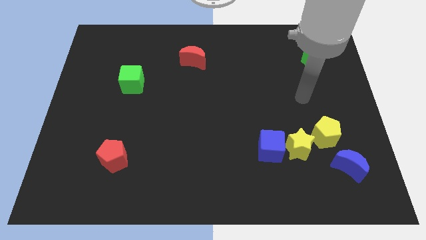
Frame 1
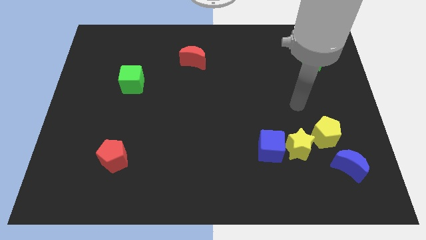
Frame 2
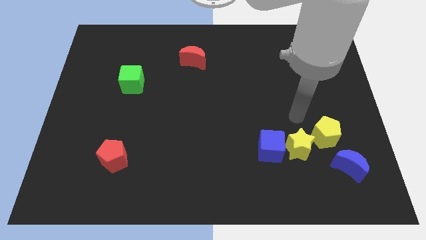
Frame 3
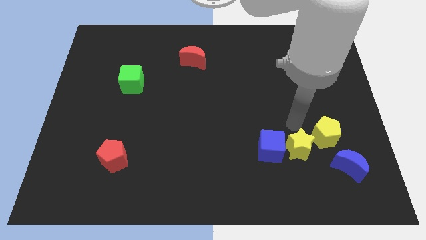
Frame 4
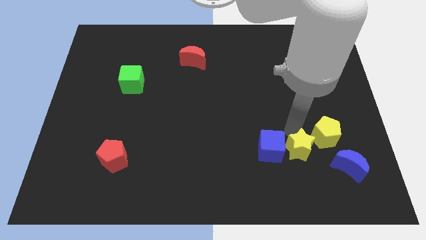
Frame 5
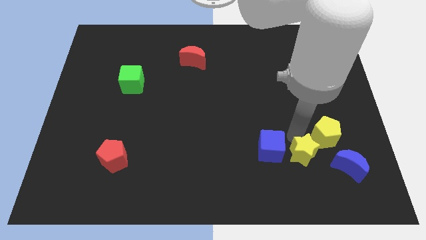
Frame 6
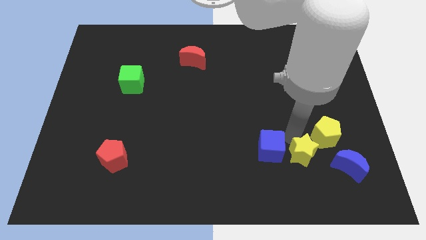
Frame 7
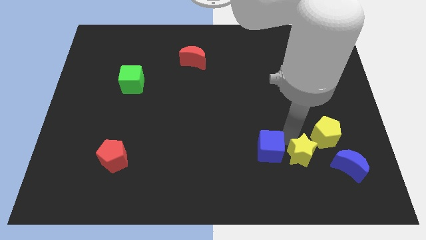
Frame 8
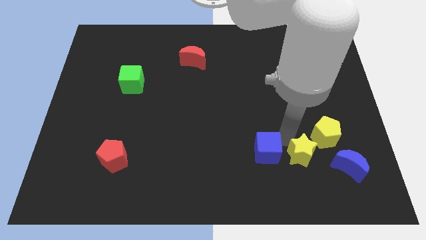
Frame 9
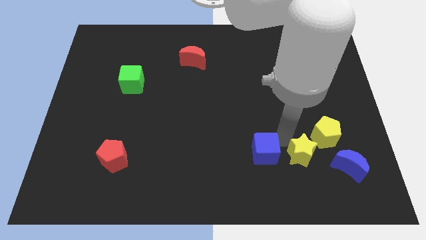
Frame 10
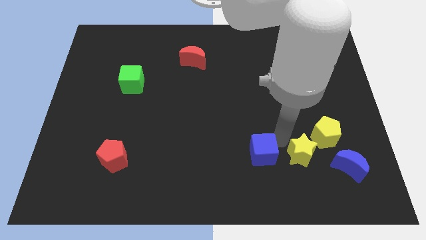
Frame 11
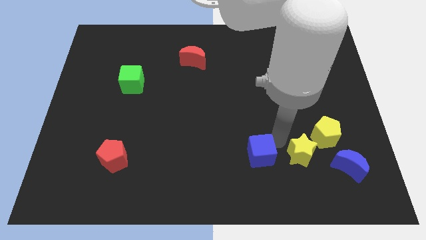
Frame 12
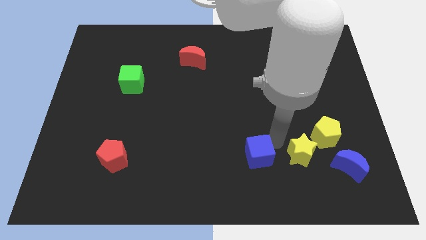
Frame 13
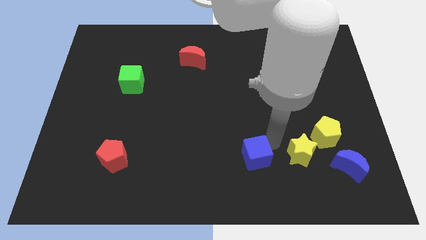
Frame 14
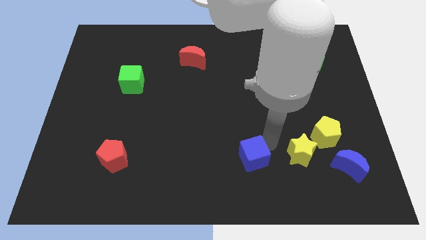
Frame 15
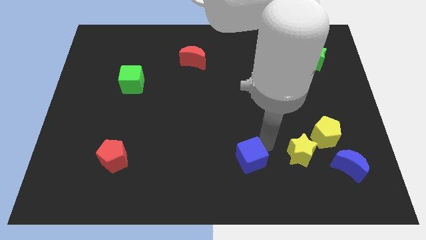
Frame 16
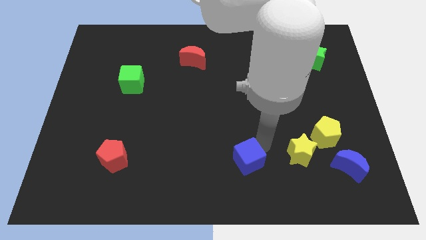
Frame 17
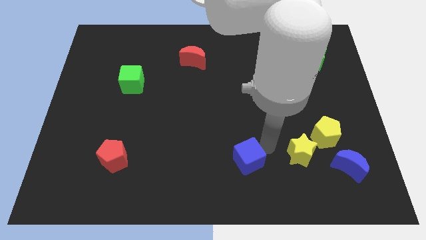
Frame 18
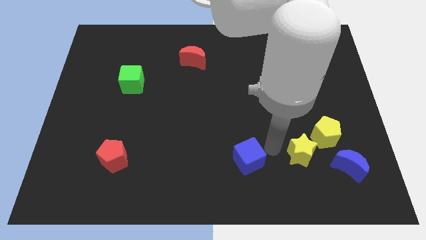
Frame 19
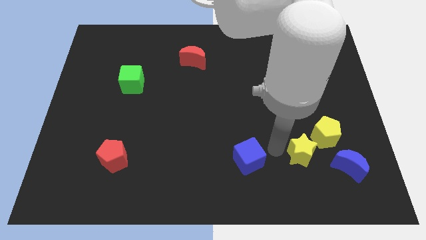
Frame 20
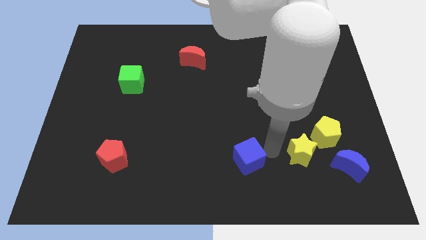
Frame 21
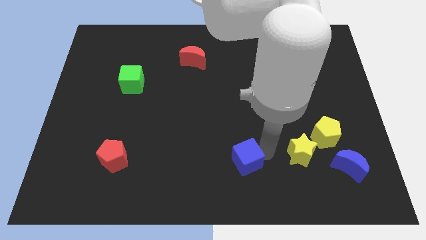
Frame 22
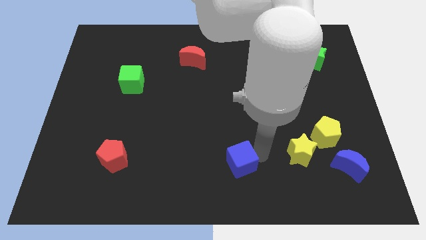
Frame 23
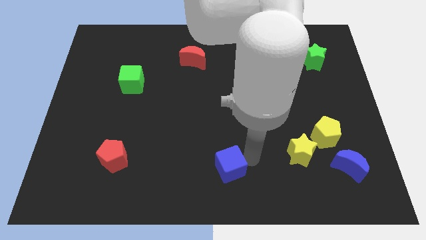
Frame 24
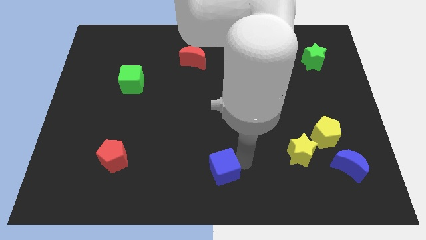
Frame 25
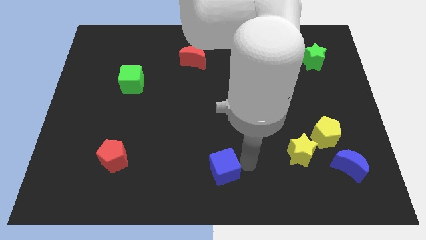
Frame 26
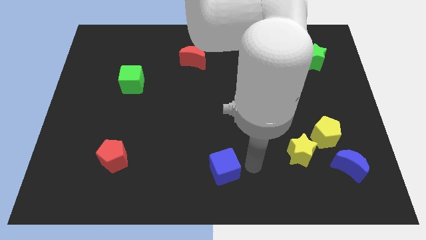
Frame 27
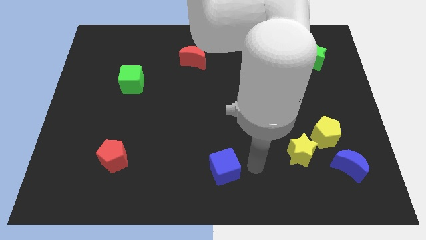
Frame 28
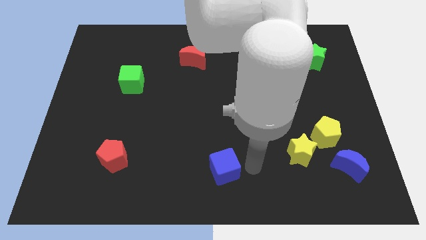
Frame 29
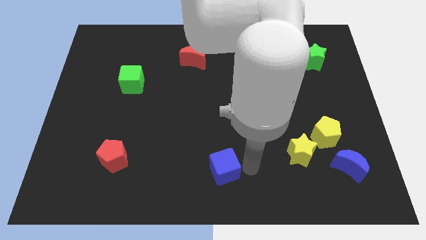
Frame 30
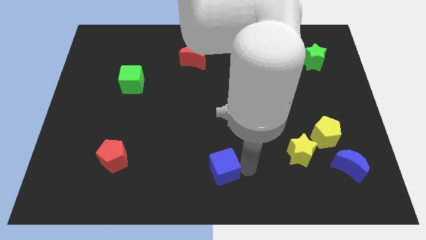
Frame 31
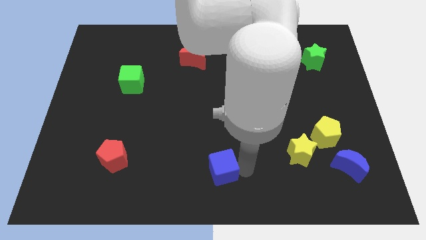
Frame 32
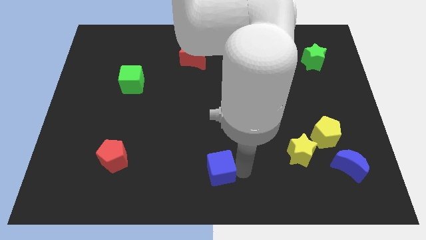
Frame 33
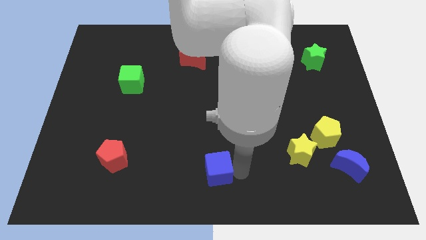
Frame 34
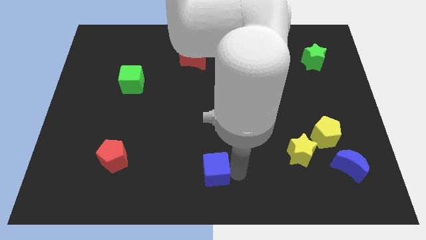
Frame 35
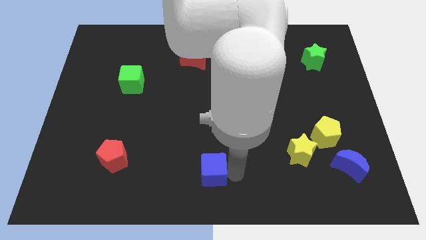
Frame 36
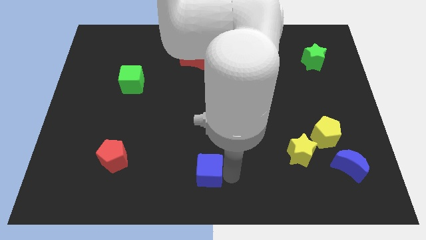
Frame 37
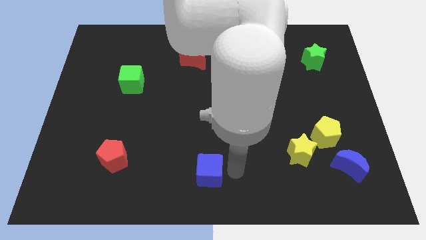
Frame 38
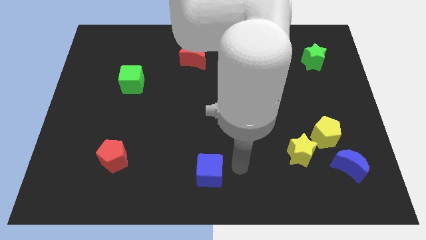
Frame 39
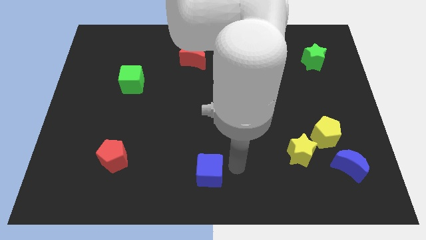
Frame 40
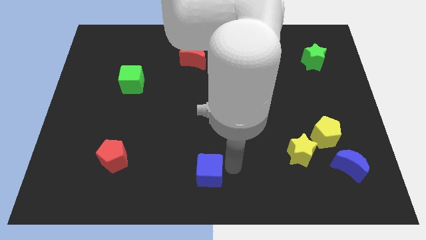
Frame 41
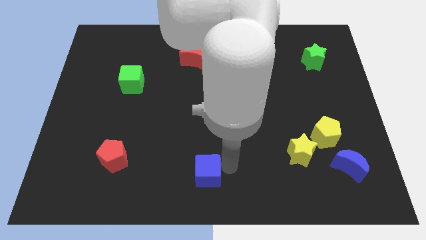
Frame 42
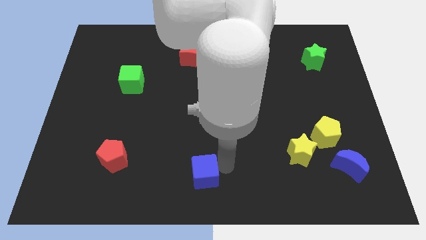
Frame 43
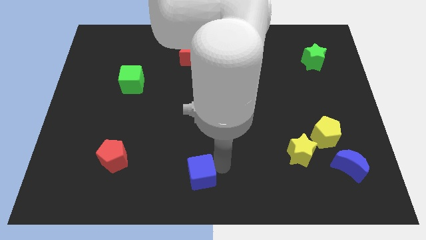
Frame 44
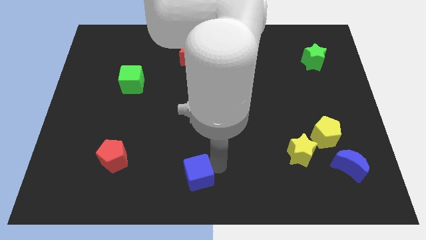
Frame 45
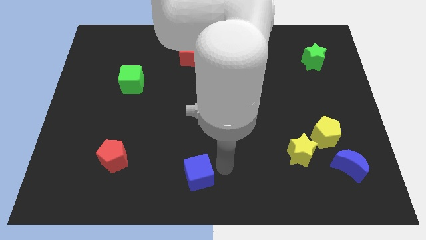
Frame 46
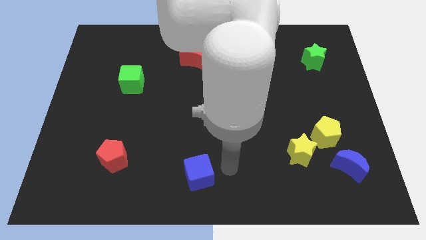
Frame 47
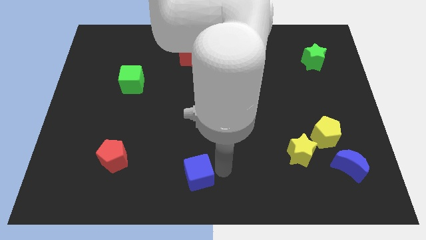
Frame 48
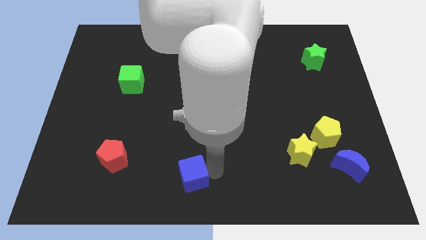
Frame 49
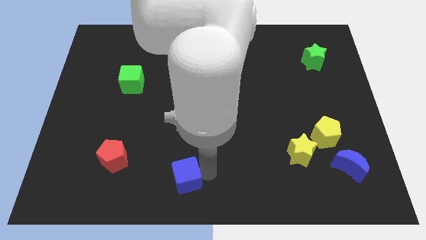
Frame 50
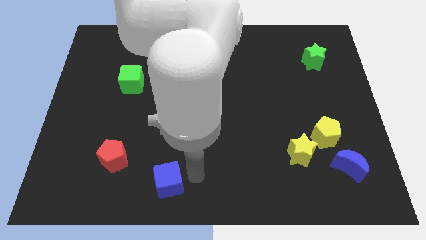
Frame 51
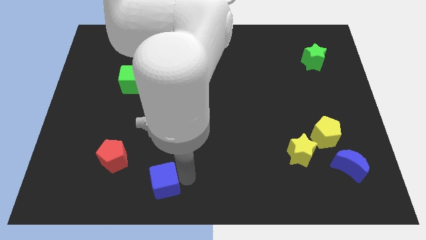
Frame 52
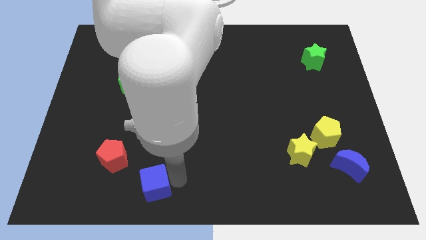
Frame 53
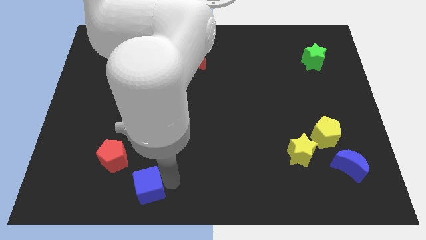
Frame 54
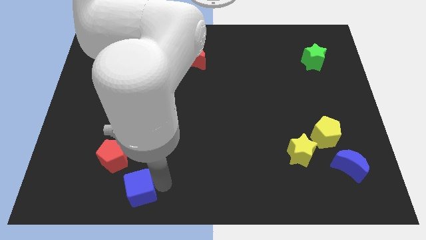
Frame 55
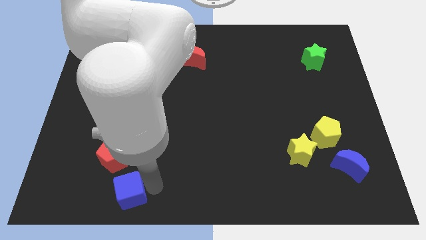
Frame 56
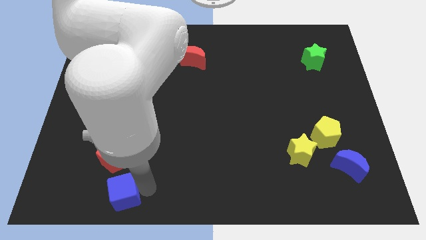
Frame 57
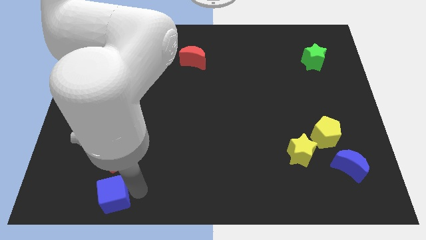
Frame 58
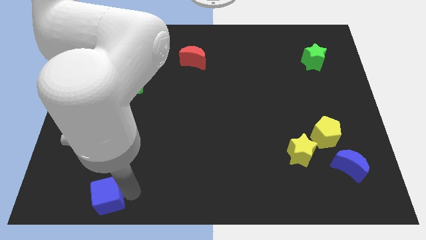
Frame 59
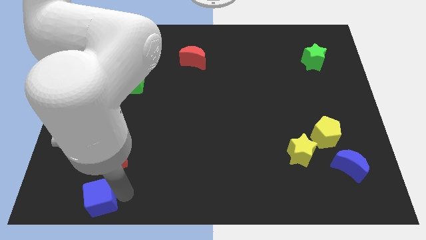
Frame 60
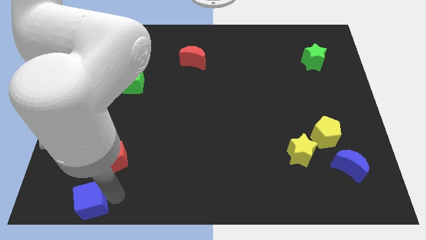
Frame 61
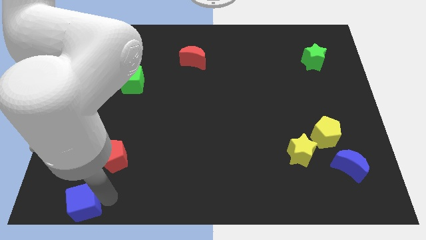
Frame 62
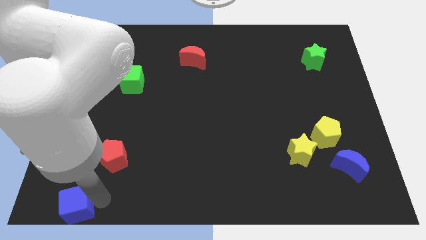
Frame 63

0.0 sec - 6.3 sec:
move the blue cube to the lower left corner
